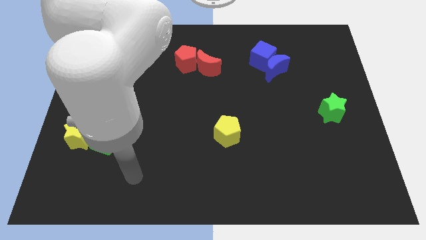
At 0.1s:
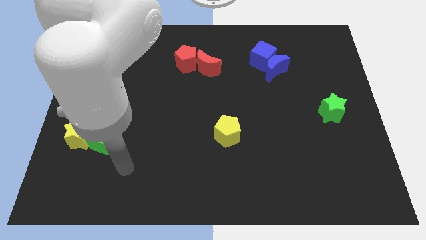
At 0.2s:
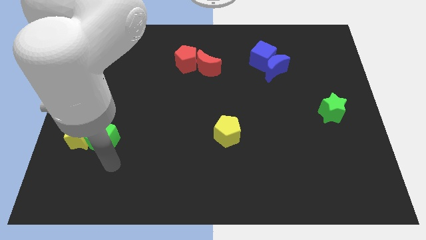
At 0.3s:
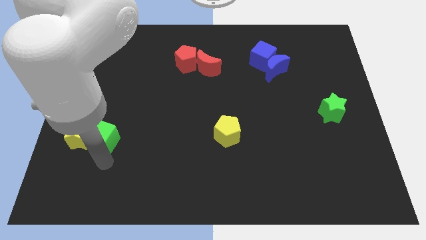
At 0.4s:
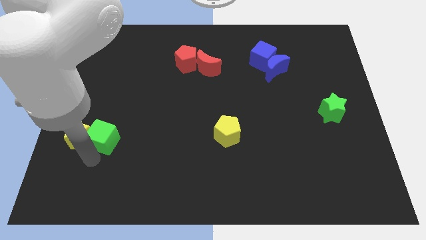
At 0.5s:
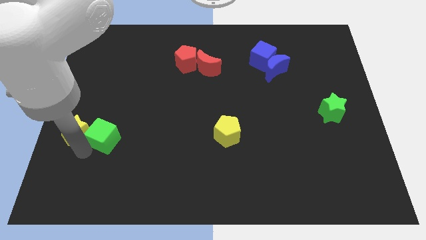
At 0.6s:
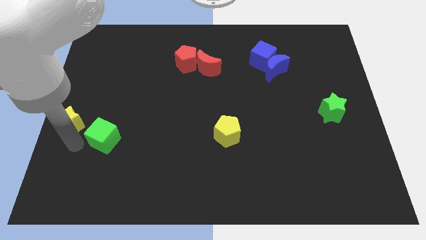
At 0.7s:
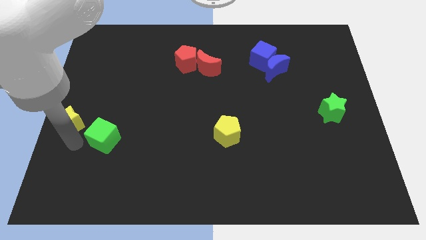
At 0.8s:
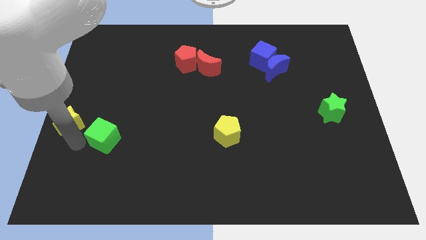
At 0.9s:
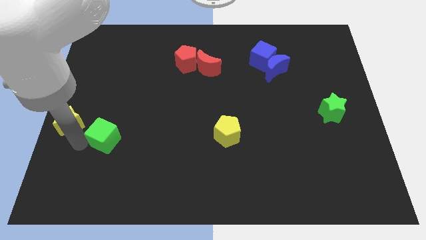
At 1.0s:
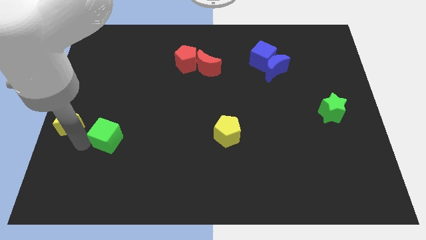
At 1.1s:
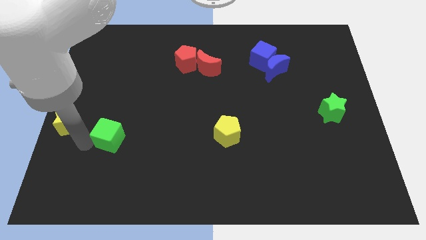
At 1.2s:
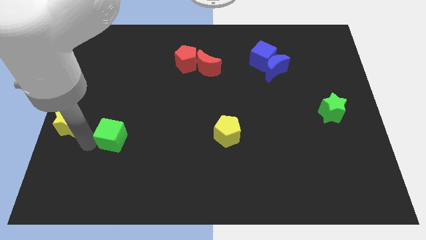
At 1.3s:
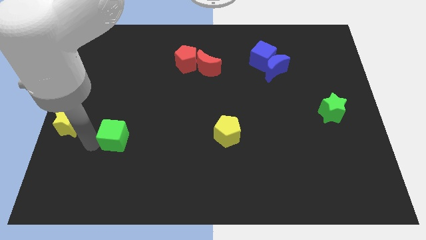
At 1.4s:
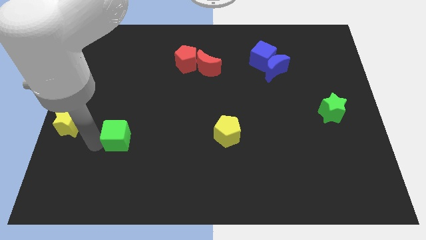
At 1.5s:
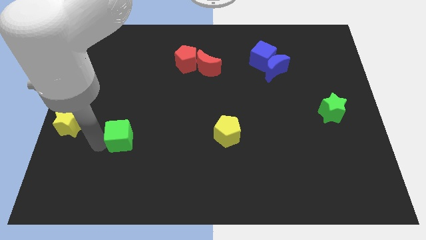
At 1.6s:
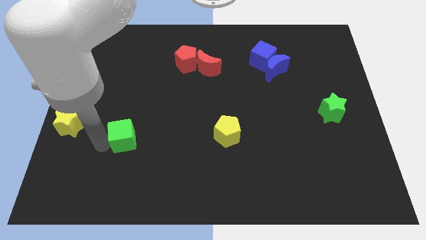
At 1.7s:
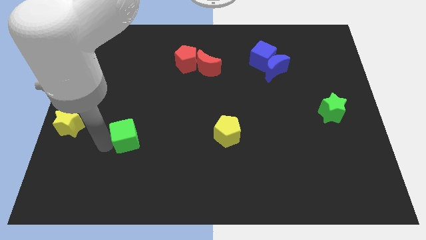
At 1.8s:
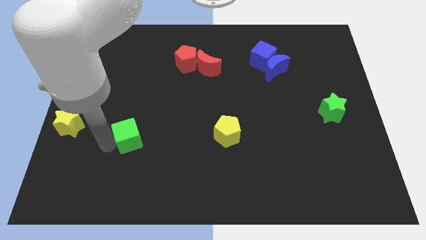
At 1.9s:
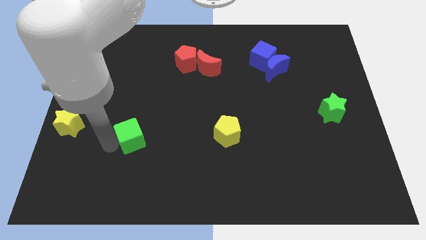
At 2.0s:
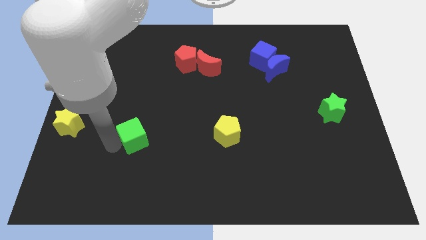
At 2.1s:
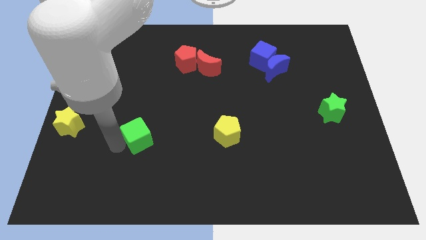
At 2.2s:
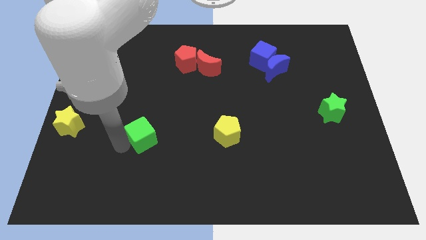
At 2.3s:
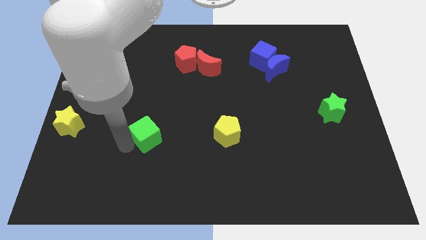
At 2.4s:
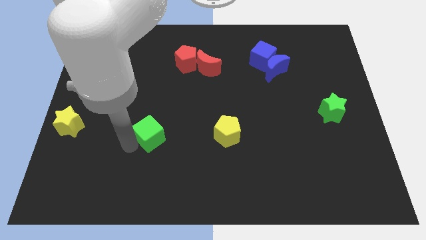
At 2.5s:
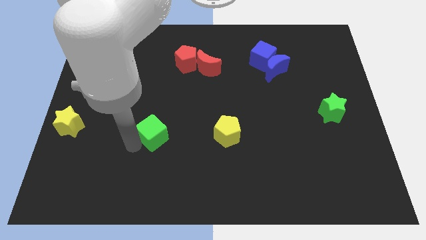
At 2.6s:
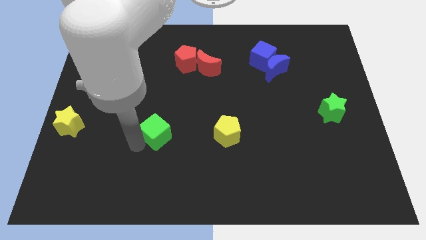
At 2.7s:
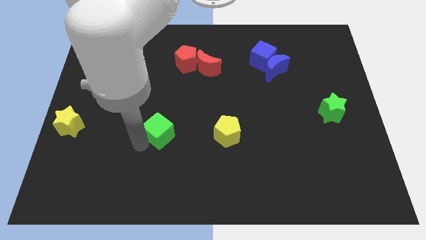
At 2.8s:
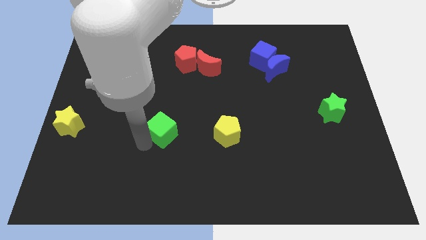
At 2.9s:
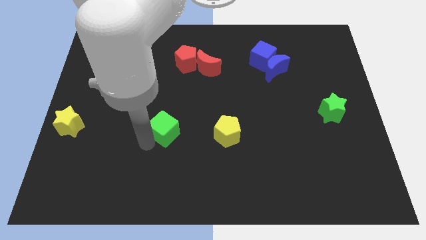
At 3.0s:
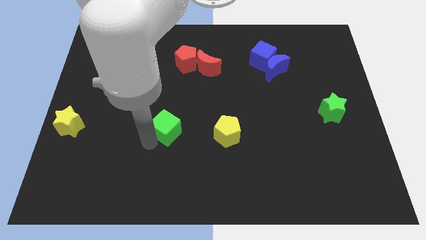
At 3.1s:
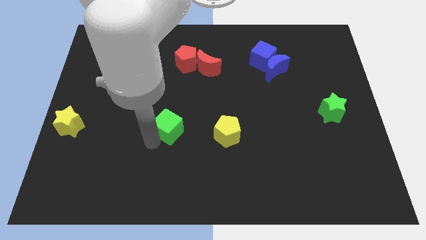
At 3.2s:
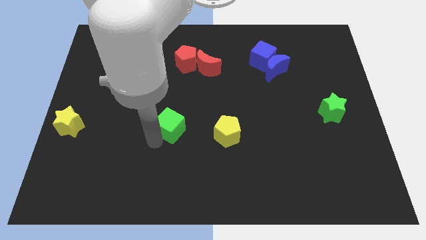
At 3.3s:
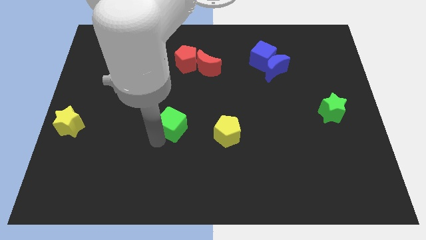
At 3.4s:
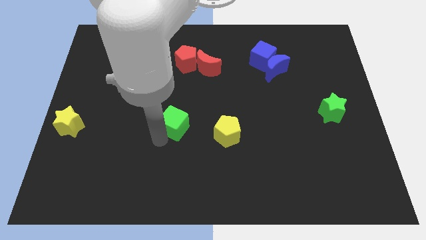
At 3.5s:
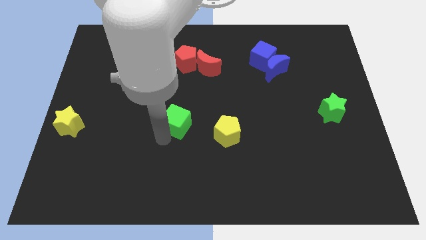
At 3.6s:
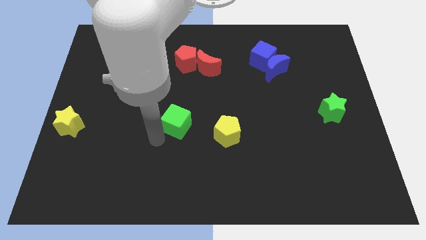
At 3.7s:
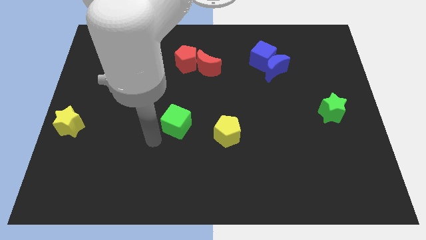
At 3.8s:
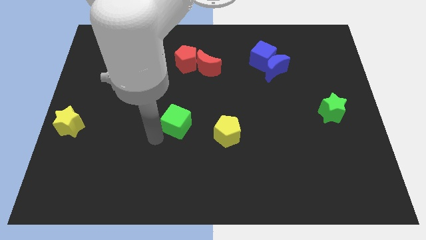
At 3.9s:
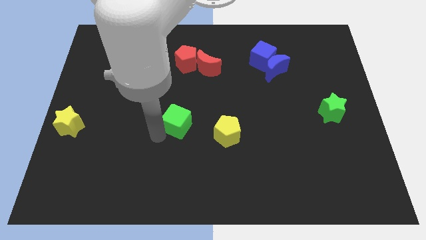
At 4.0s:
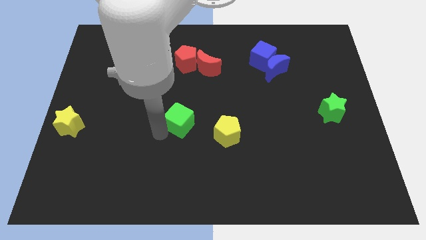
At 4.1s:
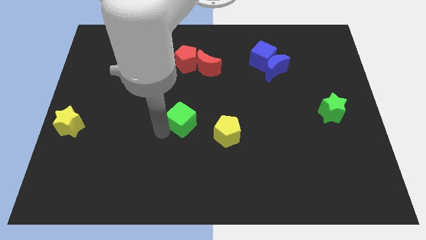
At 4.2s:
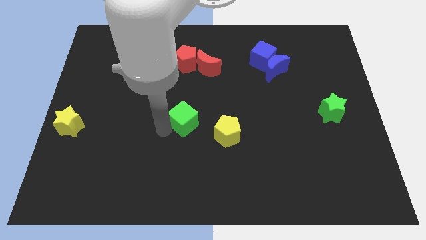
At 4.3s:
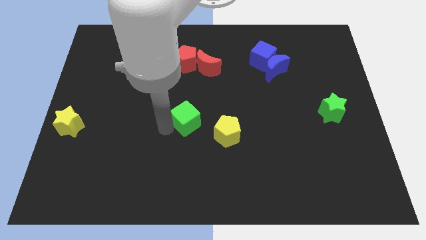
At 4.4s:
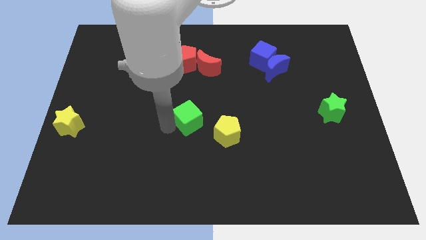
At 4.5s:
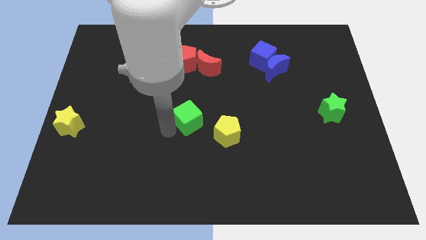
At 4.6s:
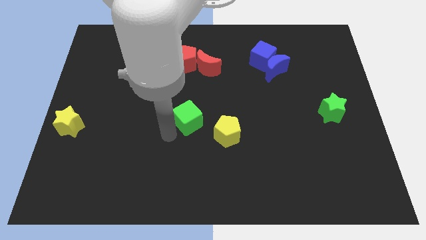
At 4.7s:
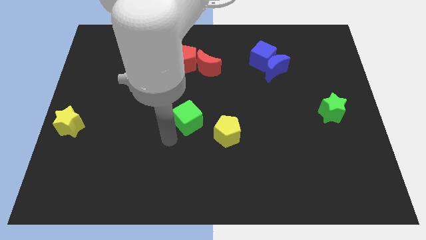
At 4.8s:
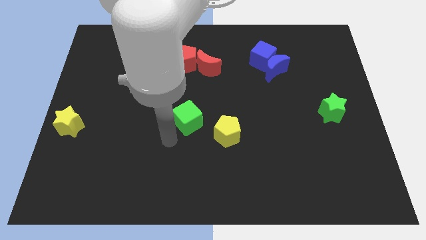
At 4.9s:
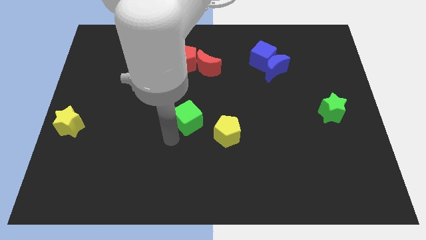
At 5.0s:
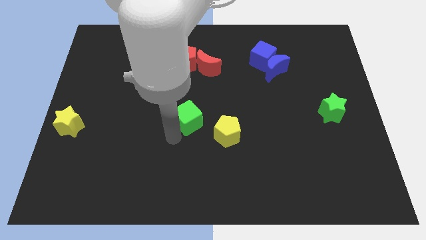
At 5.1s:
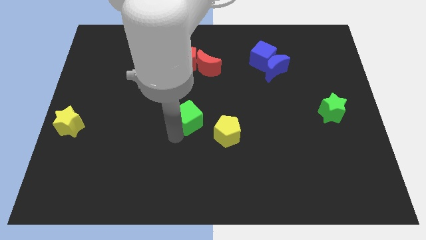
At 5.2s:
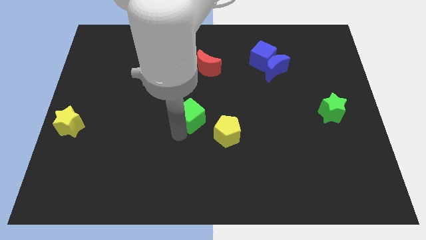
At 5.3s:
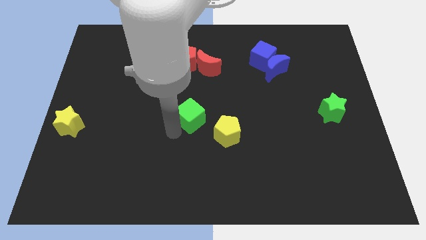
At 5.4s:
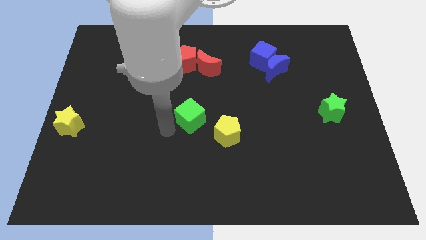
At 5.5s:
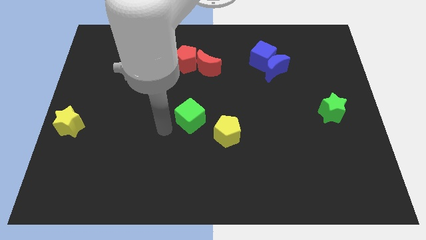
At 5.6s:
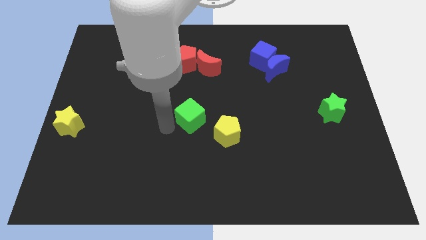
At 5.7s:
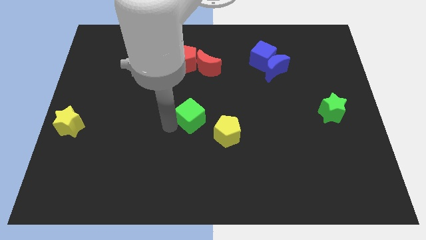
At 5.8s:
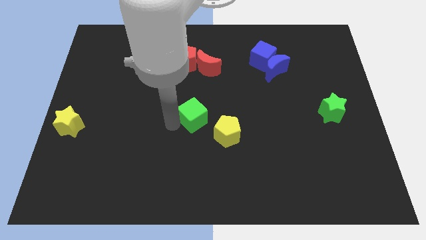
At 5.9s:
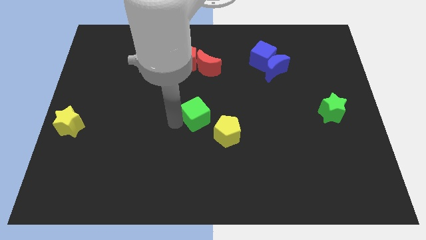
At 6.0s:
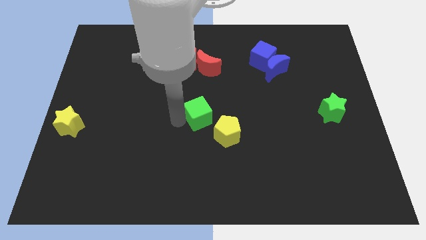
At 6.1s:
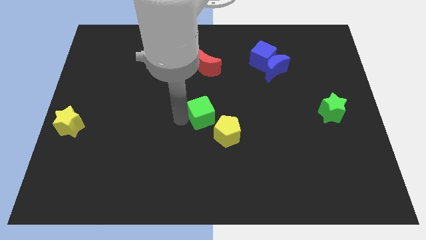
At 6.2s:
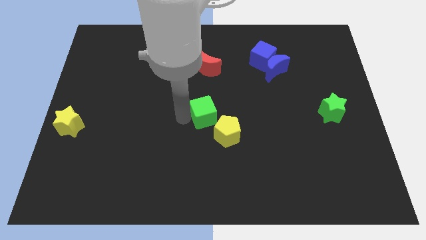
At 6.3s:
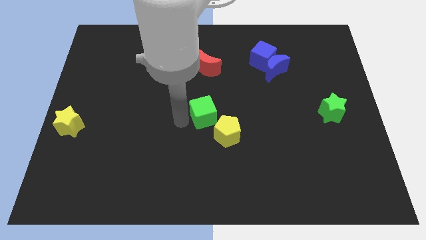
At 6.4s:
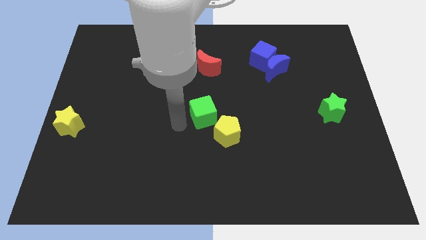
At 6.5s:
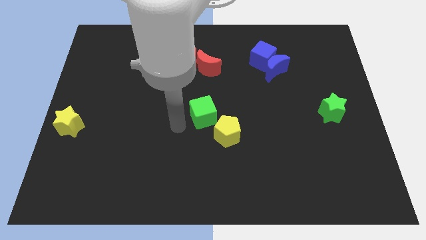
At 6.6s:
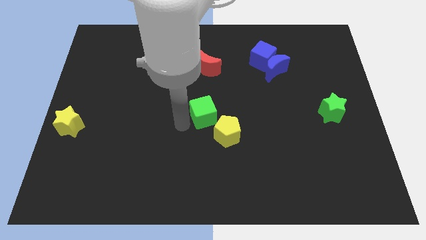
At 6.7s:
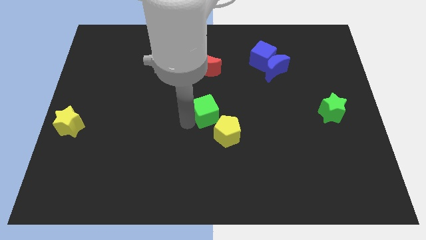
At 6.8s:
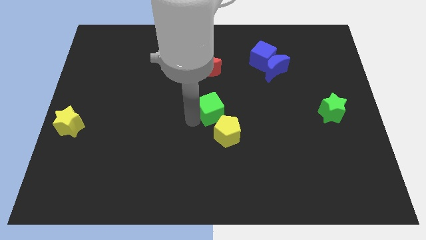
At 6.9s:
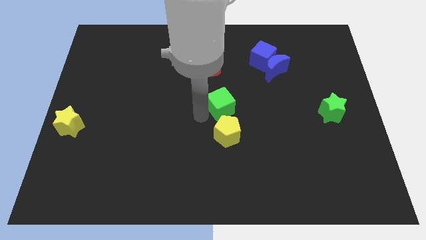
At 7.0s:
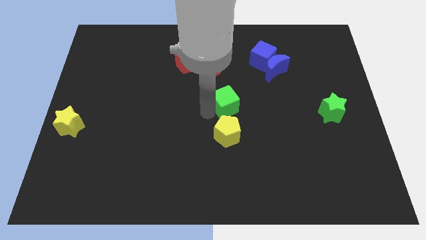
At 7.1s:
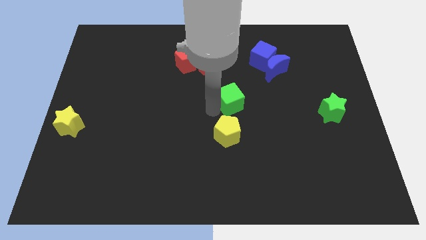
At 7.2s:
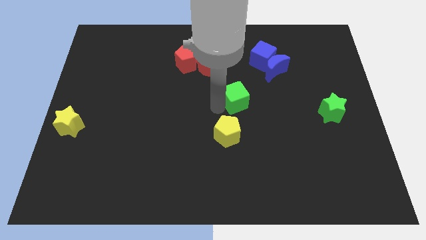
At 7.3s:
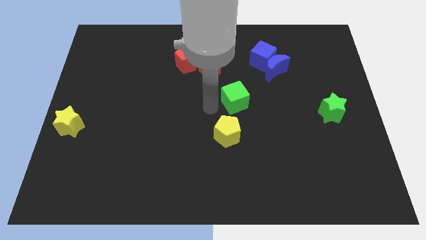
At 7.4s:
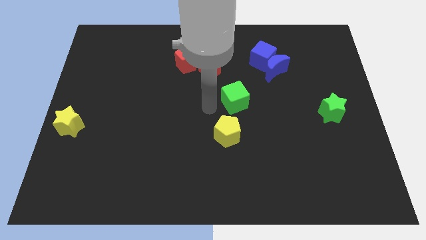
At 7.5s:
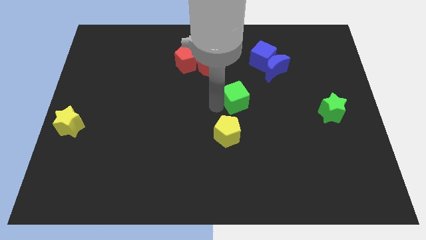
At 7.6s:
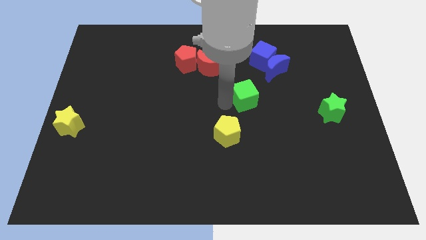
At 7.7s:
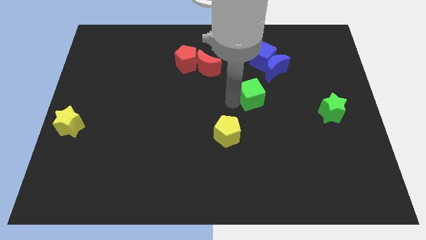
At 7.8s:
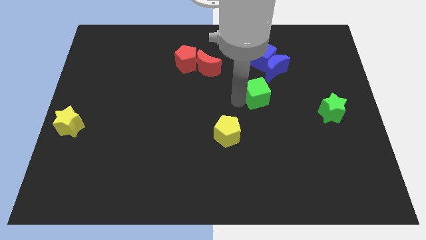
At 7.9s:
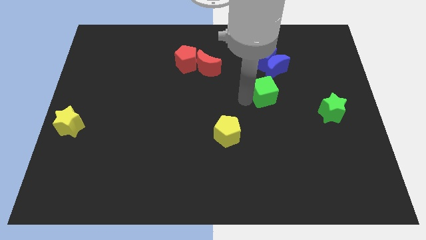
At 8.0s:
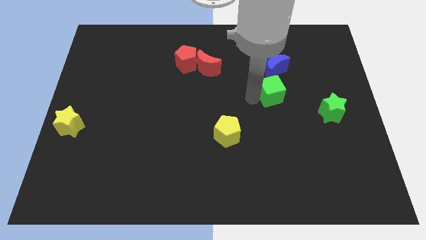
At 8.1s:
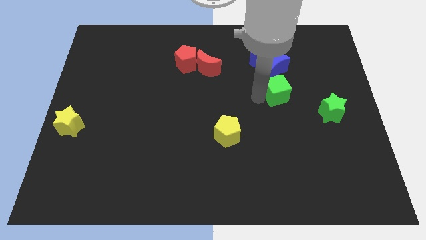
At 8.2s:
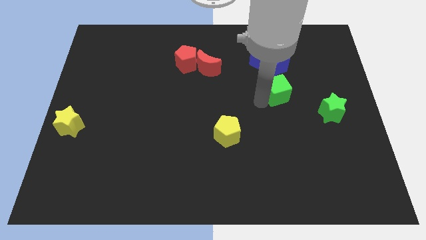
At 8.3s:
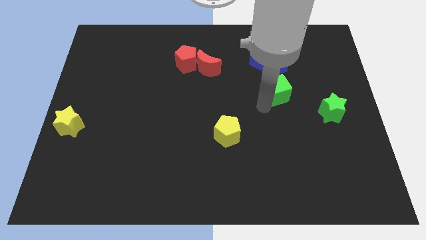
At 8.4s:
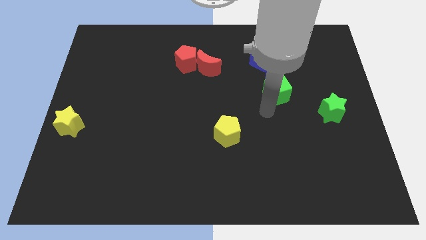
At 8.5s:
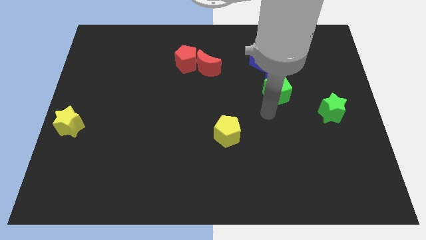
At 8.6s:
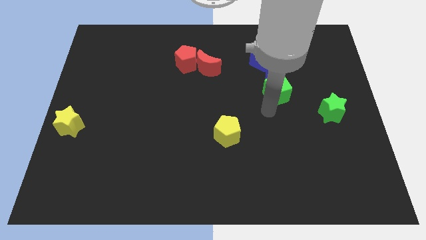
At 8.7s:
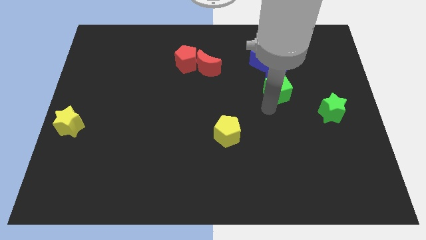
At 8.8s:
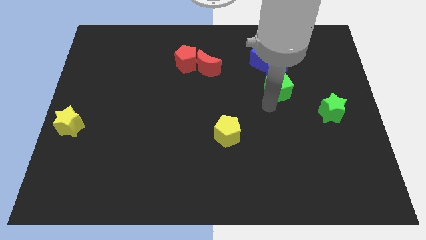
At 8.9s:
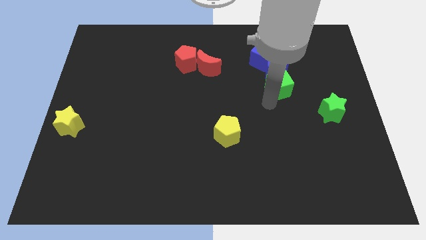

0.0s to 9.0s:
put the green cube to the bottom right of the blue cube
